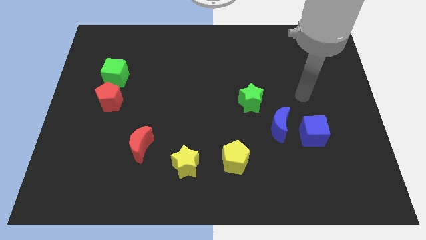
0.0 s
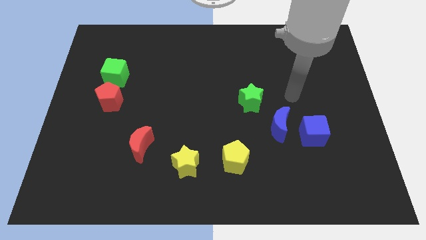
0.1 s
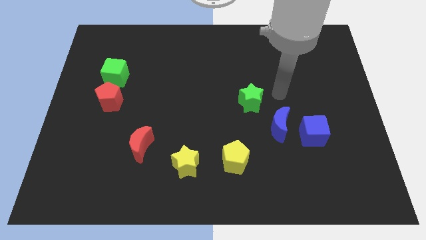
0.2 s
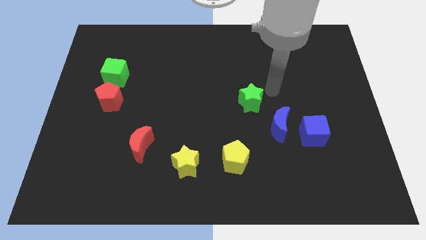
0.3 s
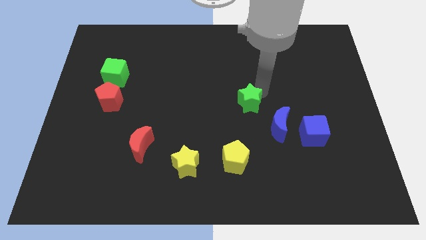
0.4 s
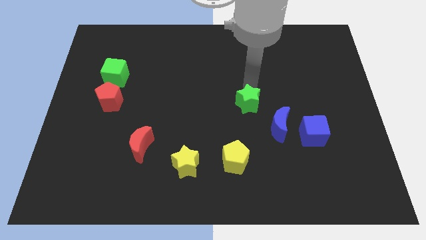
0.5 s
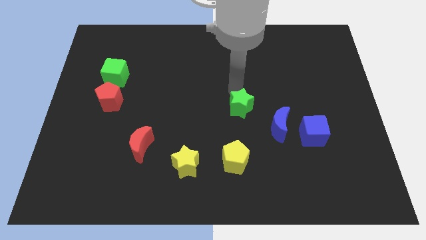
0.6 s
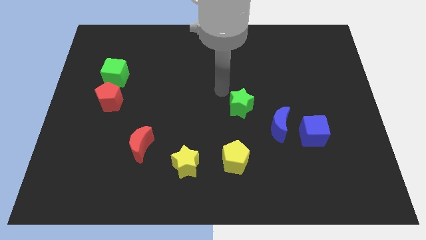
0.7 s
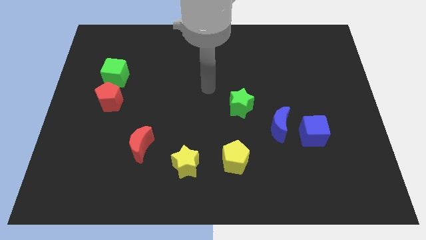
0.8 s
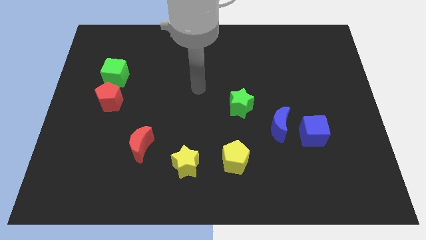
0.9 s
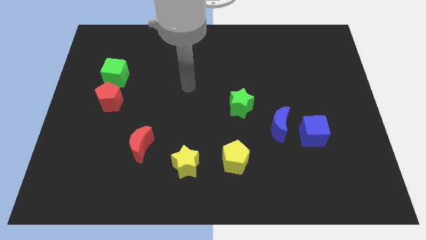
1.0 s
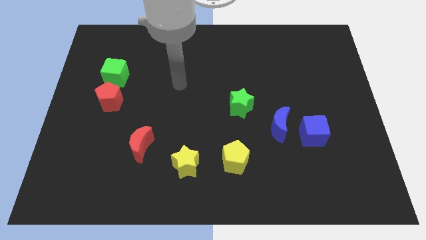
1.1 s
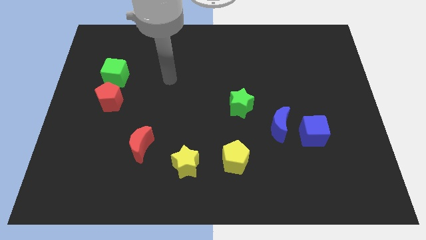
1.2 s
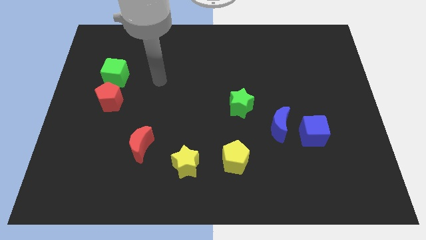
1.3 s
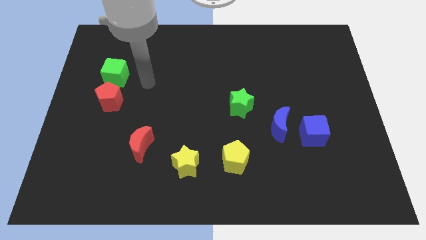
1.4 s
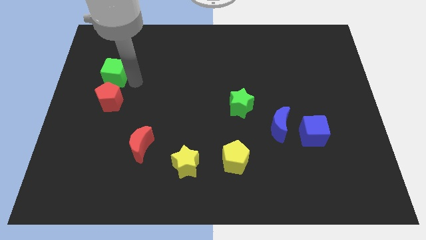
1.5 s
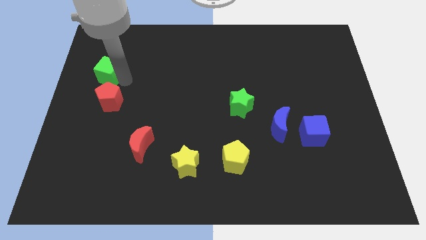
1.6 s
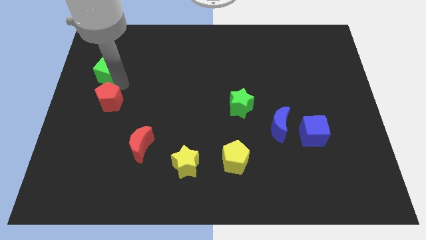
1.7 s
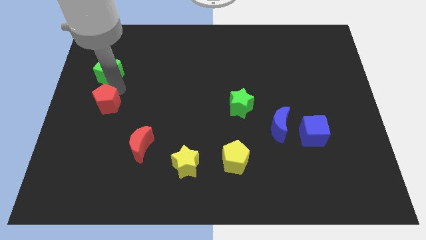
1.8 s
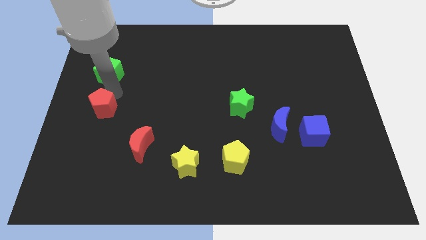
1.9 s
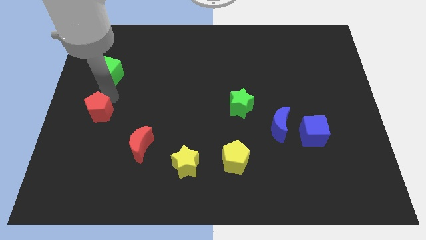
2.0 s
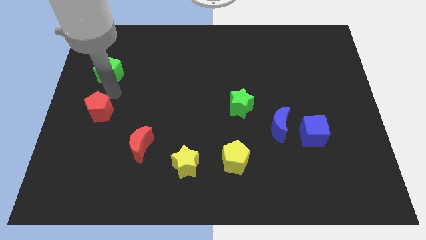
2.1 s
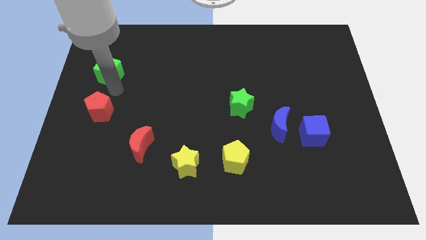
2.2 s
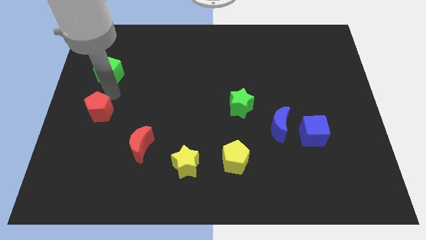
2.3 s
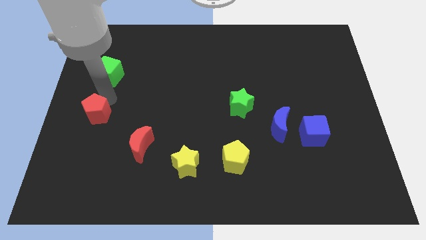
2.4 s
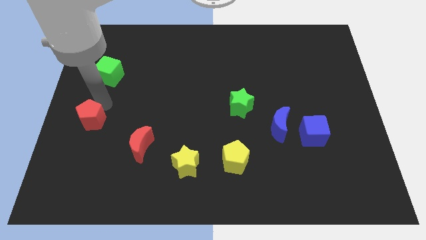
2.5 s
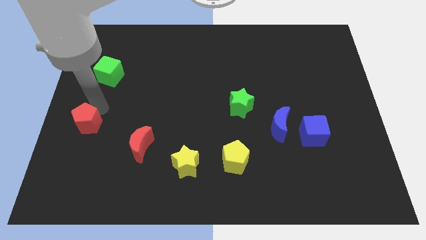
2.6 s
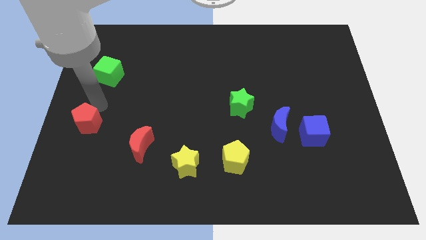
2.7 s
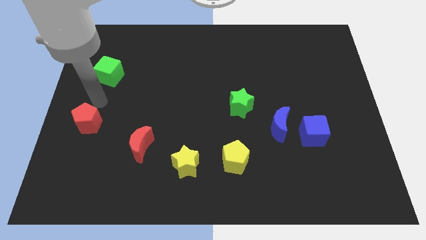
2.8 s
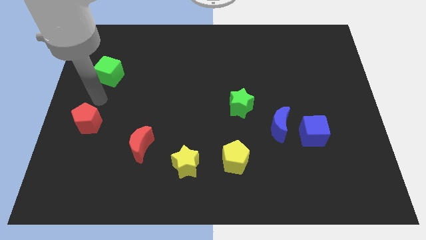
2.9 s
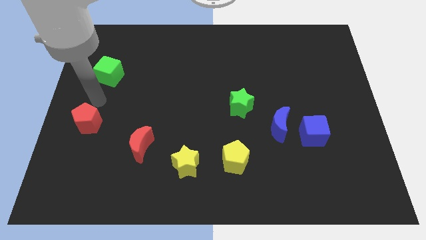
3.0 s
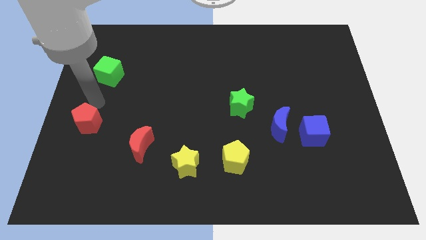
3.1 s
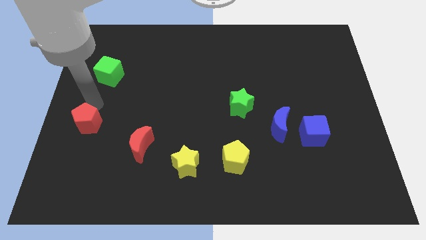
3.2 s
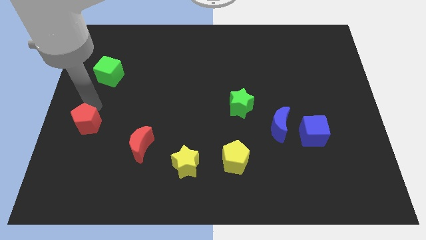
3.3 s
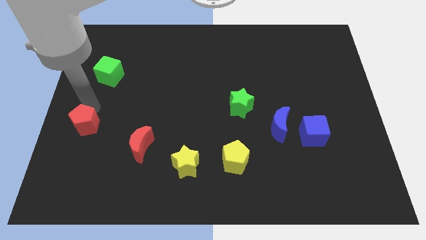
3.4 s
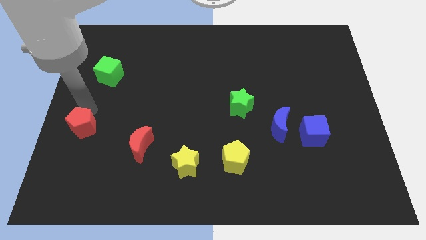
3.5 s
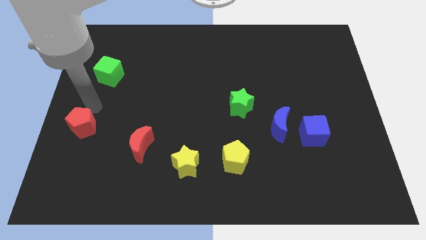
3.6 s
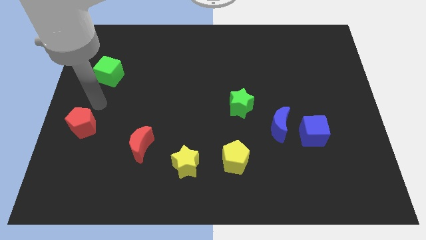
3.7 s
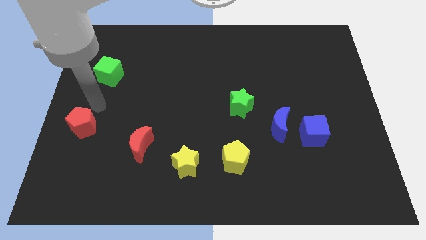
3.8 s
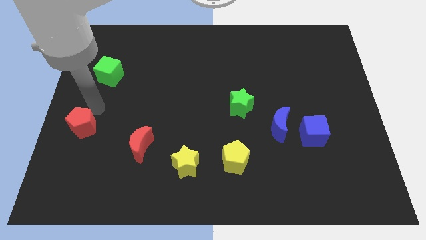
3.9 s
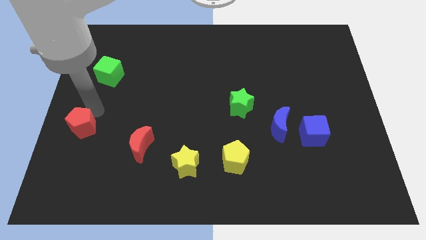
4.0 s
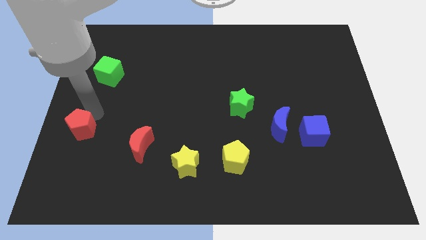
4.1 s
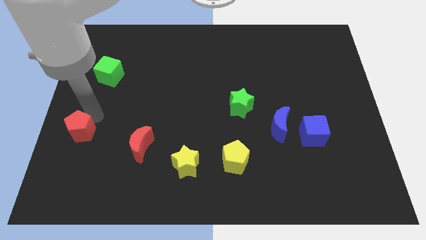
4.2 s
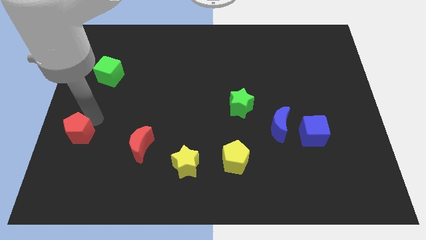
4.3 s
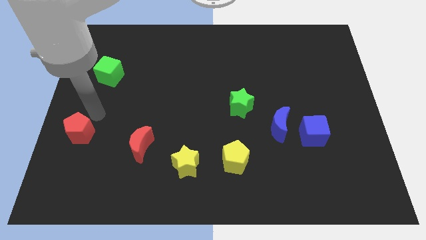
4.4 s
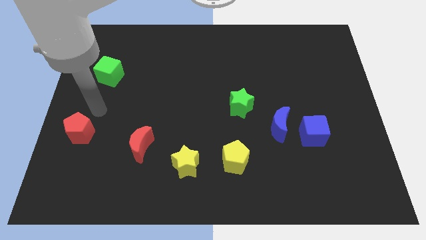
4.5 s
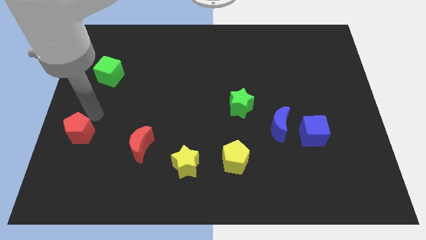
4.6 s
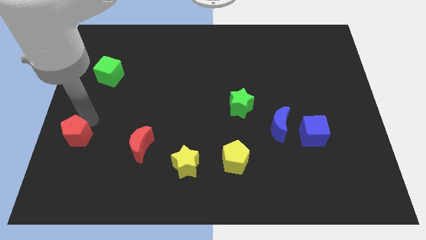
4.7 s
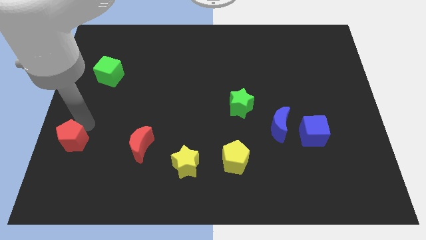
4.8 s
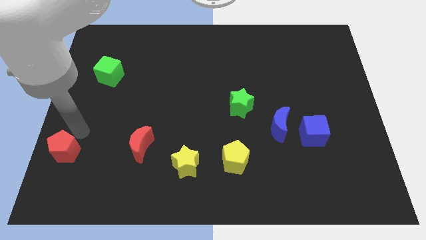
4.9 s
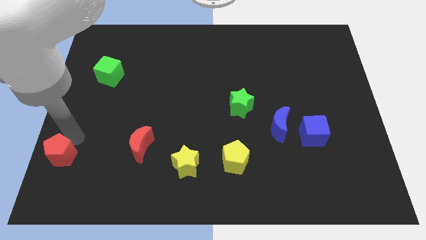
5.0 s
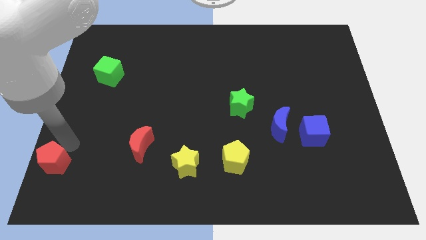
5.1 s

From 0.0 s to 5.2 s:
put the red pentagon to the bottom left corner

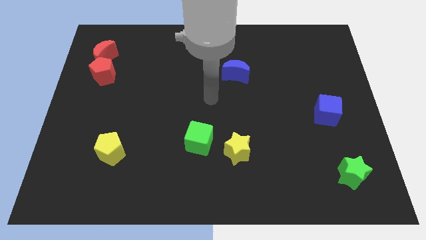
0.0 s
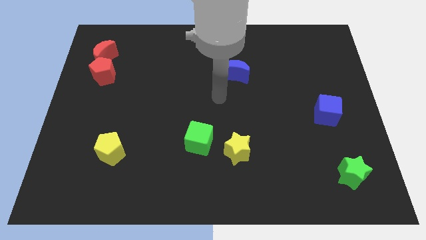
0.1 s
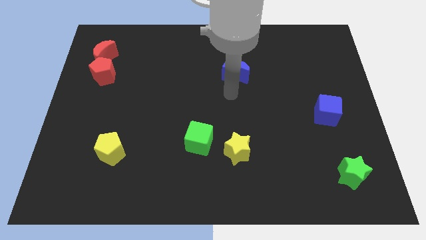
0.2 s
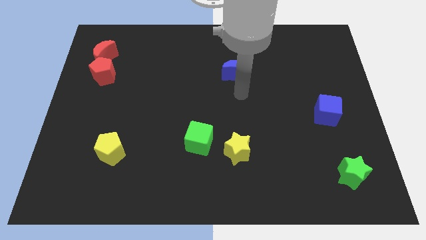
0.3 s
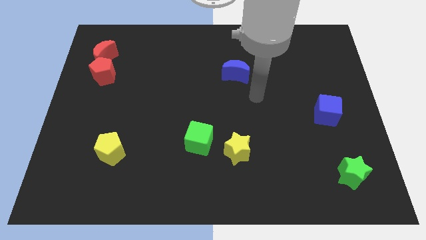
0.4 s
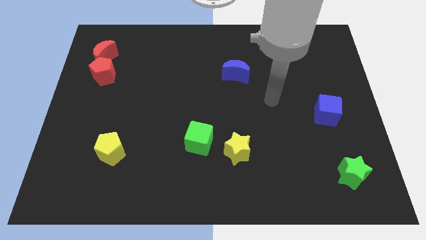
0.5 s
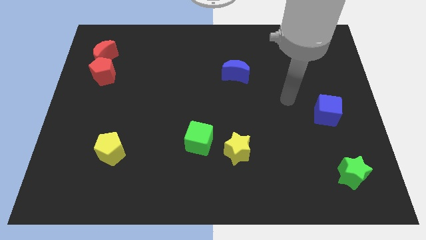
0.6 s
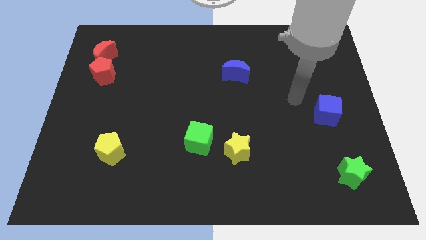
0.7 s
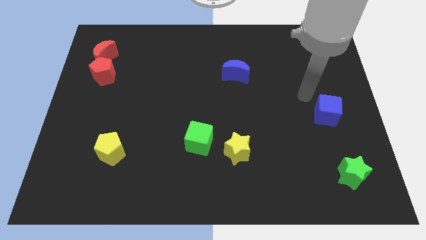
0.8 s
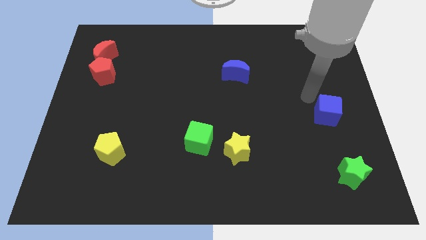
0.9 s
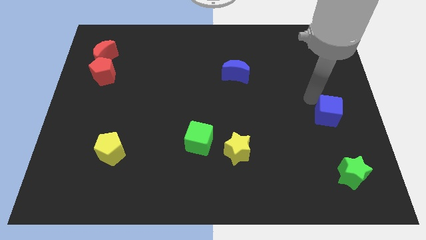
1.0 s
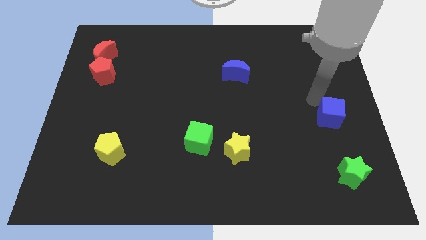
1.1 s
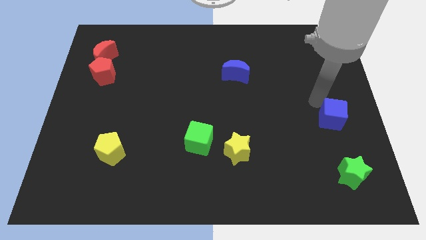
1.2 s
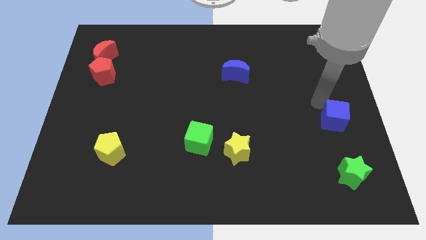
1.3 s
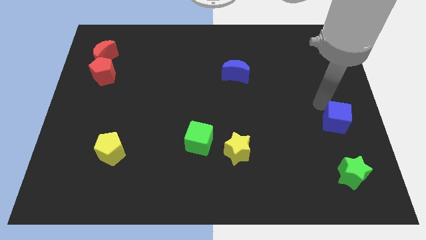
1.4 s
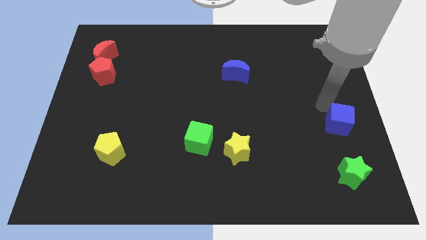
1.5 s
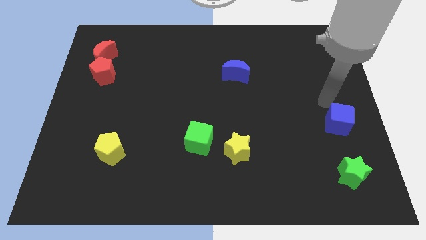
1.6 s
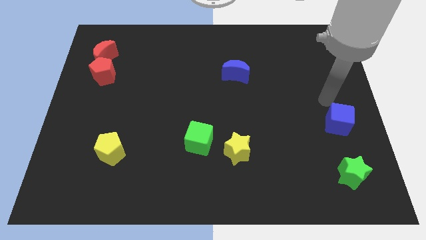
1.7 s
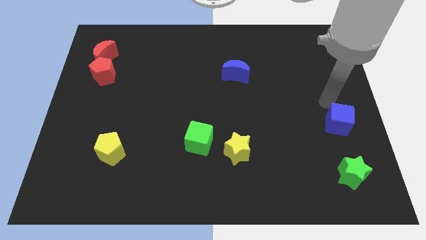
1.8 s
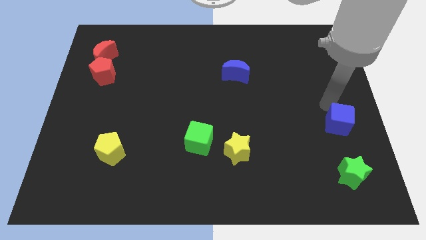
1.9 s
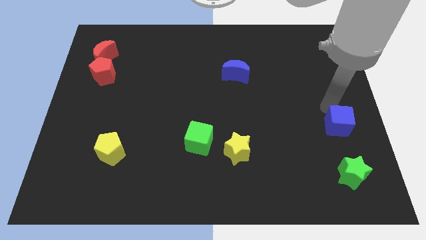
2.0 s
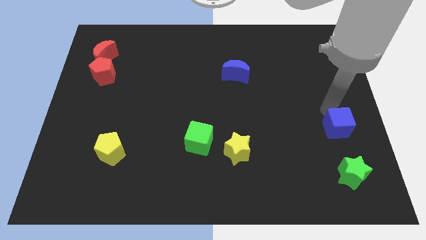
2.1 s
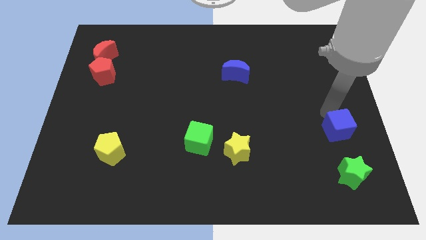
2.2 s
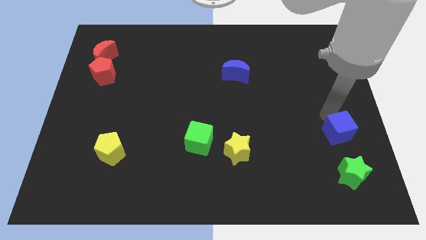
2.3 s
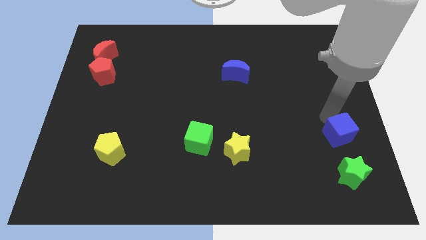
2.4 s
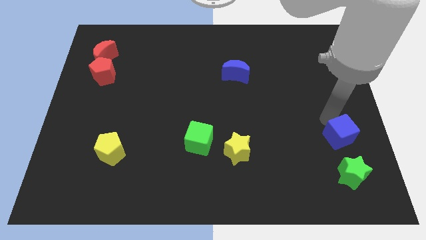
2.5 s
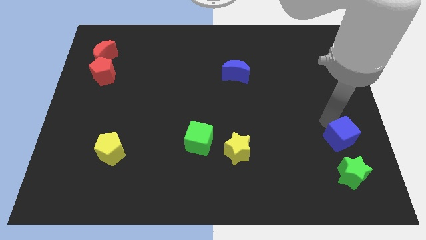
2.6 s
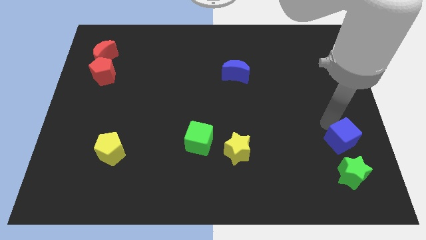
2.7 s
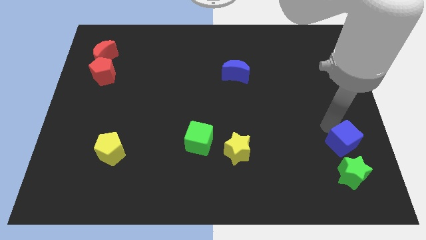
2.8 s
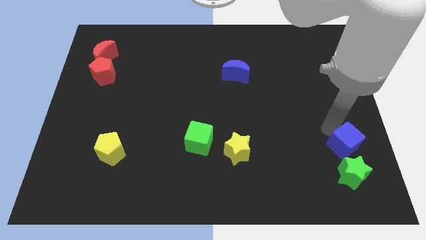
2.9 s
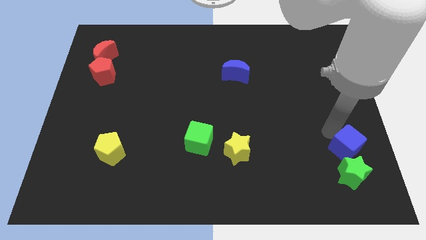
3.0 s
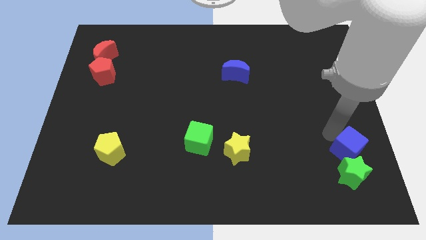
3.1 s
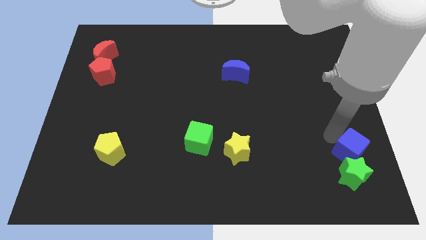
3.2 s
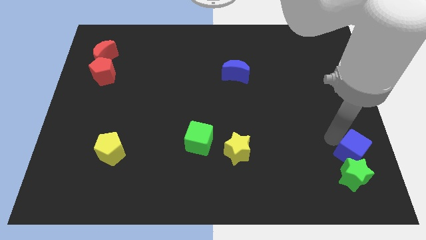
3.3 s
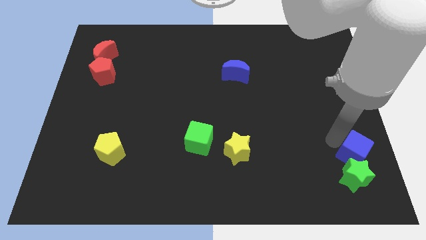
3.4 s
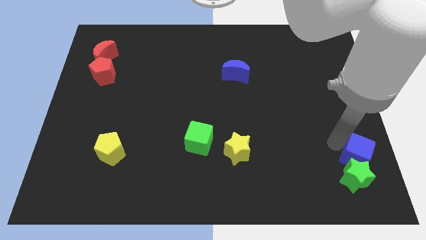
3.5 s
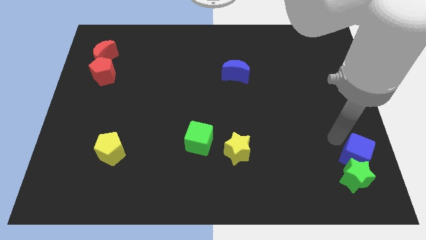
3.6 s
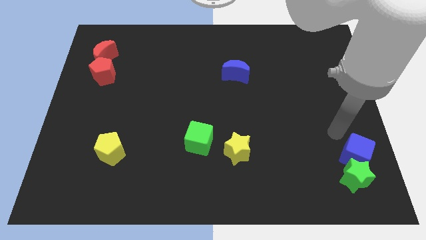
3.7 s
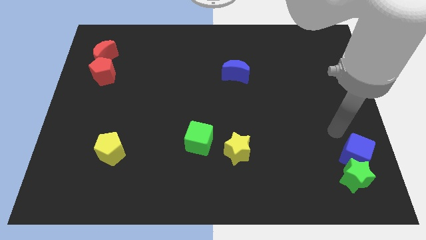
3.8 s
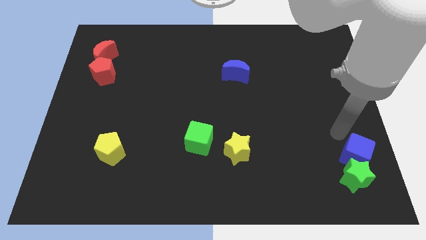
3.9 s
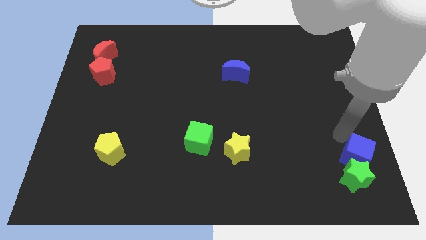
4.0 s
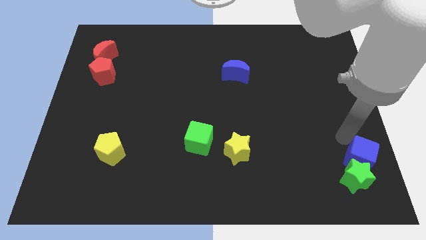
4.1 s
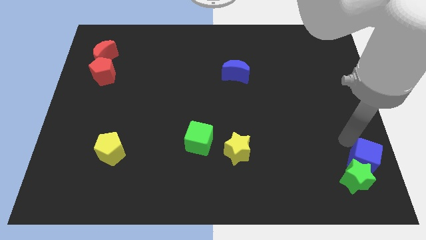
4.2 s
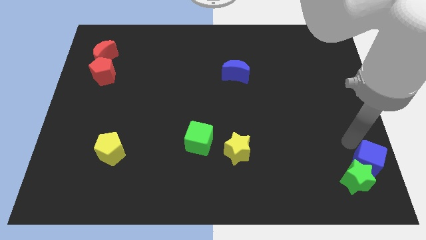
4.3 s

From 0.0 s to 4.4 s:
move the blue cube to the bottom right
